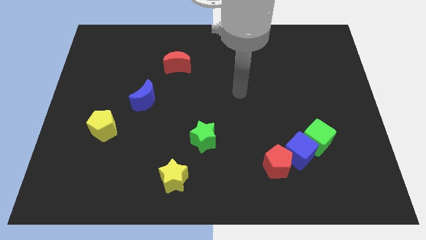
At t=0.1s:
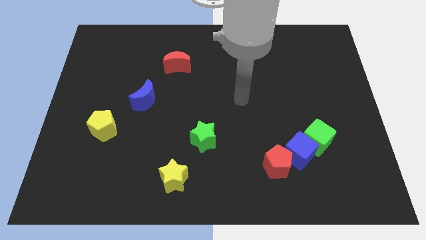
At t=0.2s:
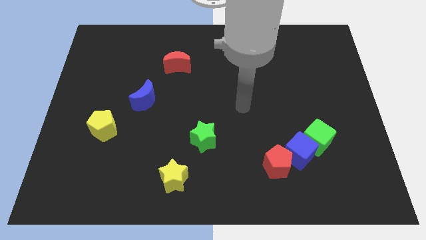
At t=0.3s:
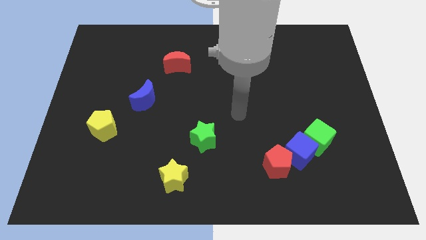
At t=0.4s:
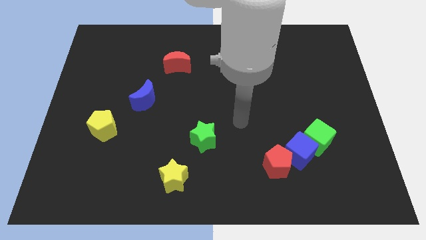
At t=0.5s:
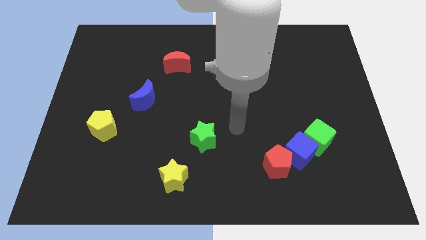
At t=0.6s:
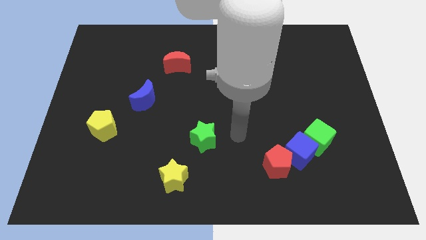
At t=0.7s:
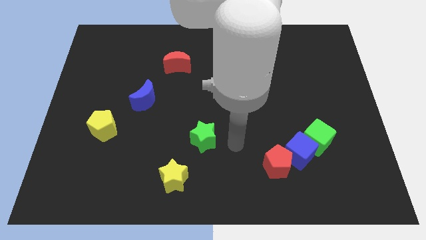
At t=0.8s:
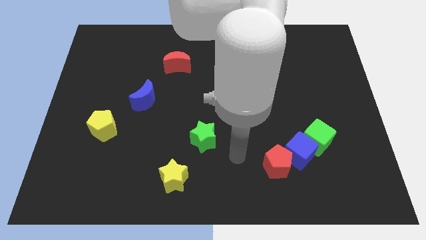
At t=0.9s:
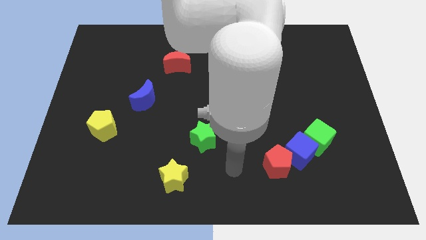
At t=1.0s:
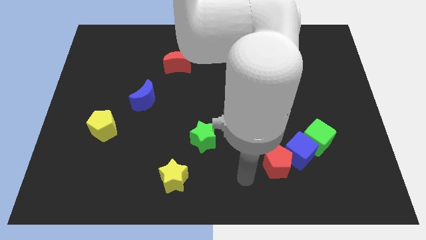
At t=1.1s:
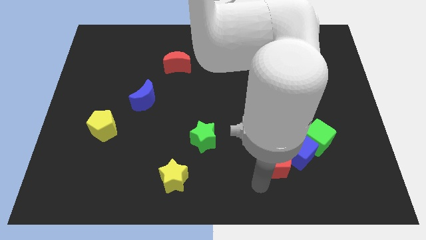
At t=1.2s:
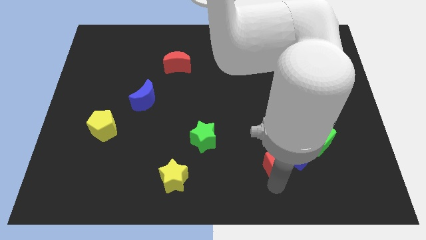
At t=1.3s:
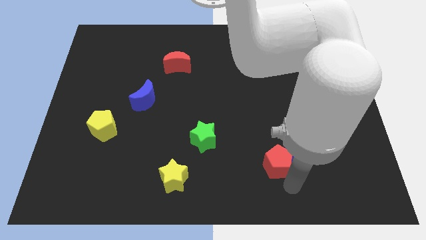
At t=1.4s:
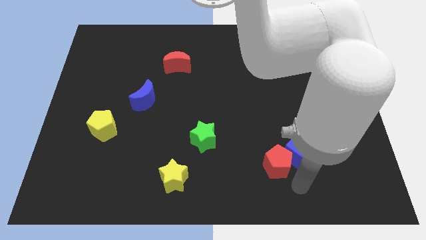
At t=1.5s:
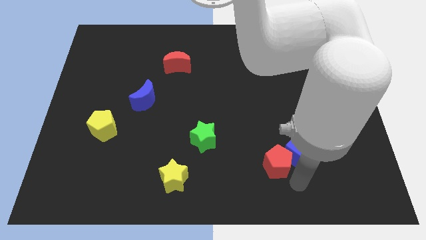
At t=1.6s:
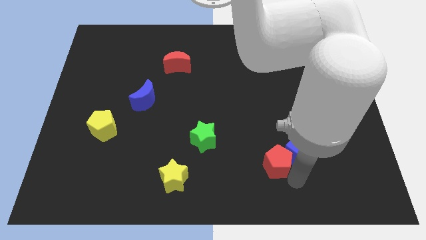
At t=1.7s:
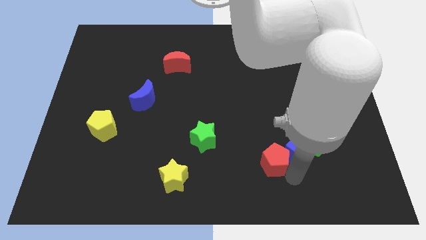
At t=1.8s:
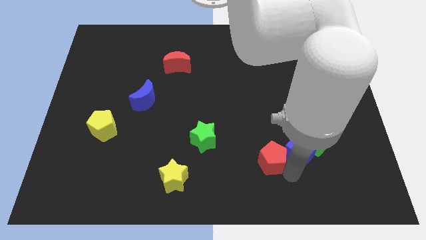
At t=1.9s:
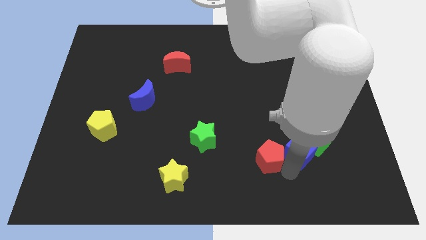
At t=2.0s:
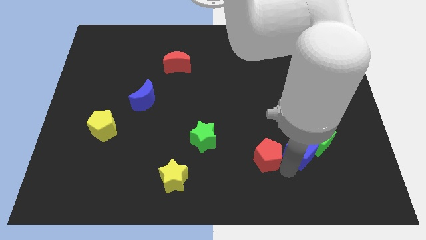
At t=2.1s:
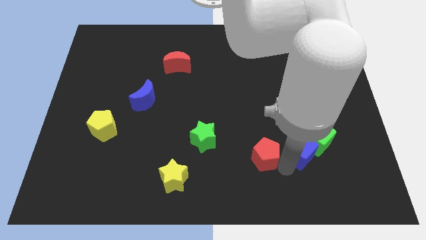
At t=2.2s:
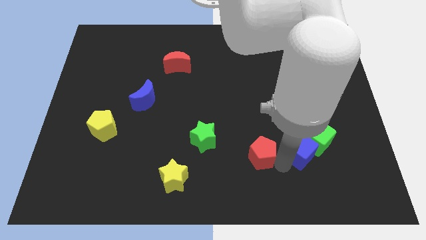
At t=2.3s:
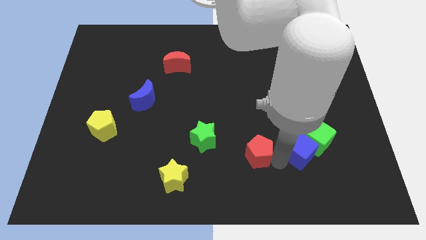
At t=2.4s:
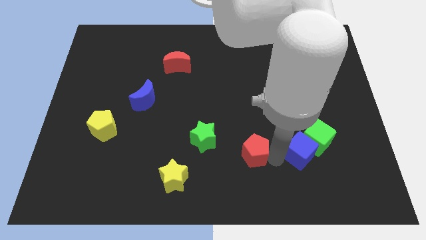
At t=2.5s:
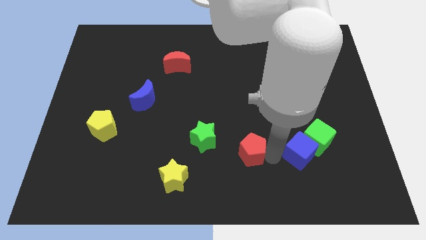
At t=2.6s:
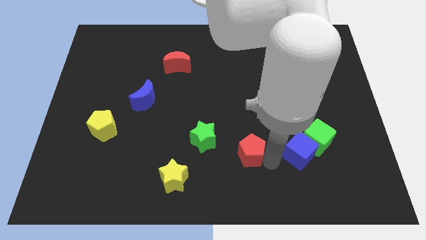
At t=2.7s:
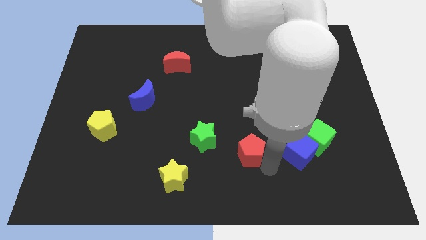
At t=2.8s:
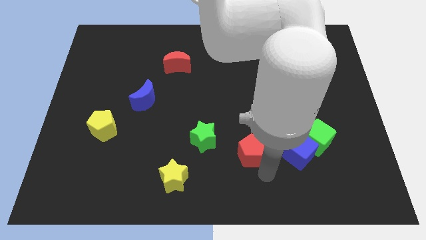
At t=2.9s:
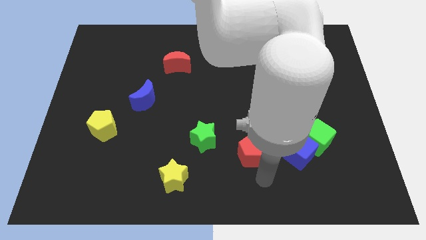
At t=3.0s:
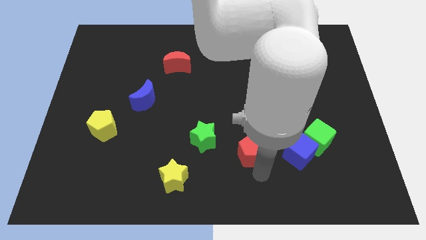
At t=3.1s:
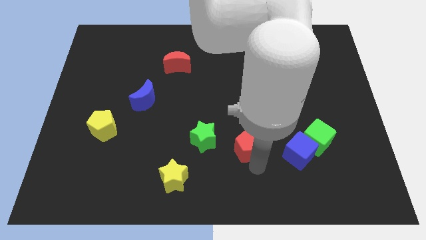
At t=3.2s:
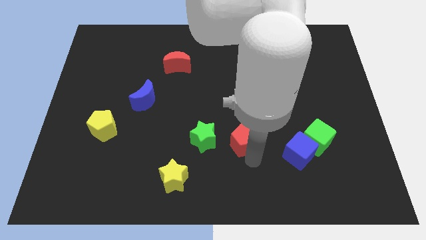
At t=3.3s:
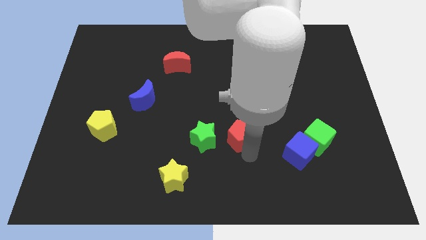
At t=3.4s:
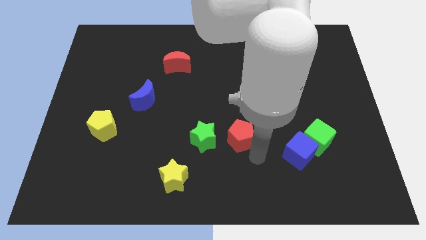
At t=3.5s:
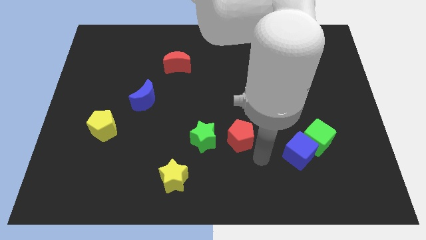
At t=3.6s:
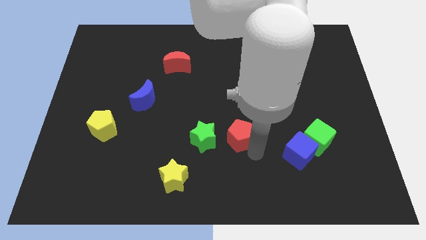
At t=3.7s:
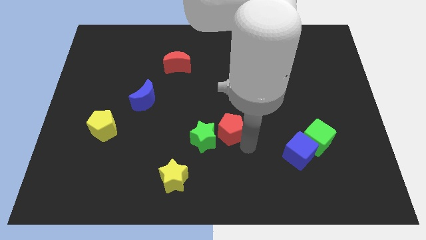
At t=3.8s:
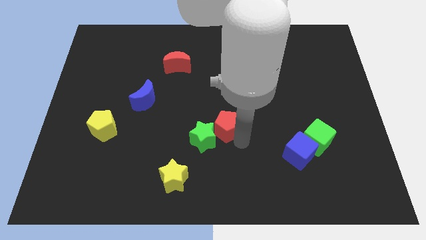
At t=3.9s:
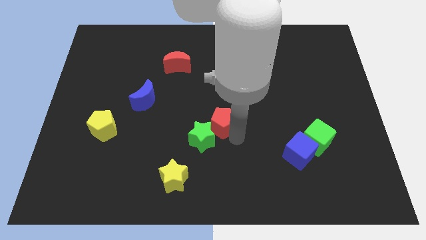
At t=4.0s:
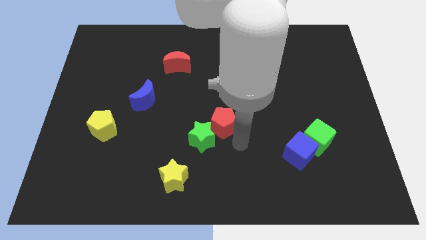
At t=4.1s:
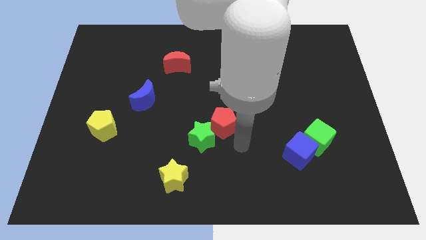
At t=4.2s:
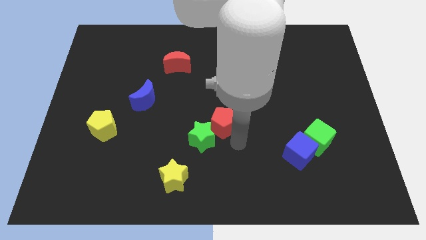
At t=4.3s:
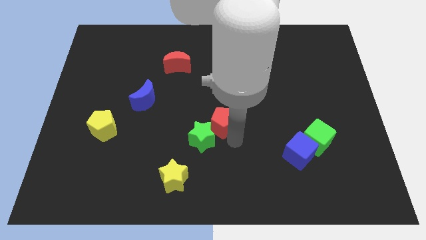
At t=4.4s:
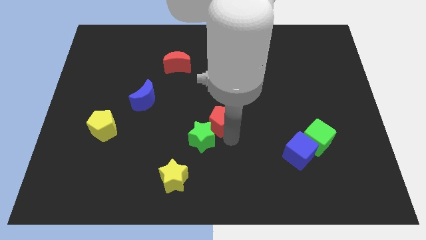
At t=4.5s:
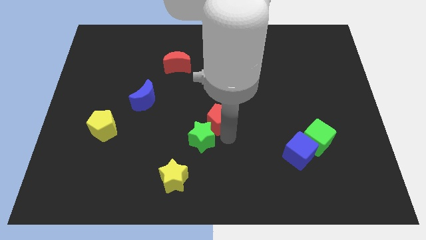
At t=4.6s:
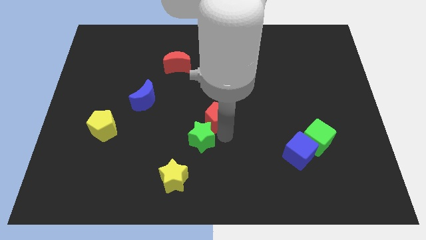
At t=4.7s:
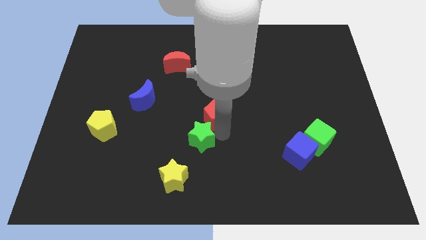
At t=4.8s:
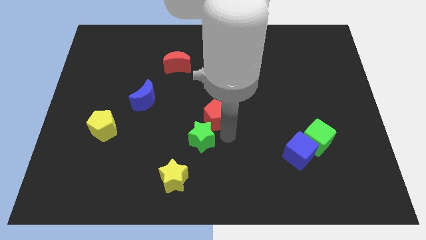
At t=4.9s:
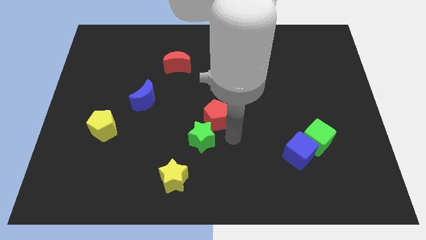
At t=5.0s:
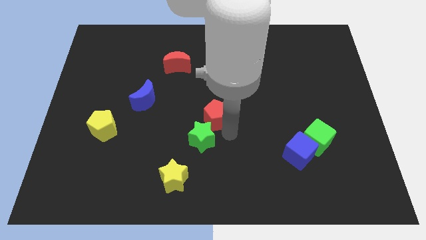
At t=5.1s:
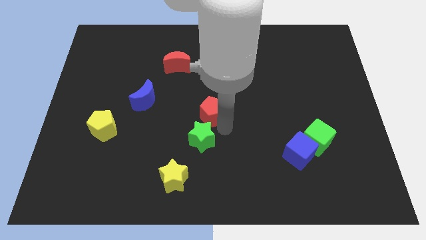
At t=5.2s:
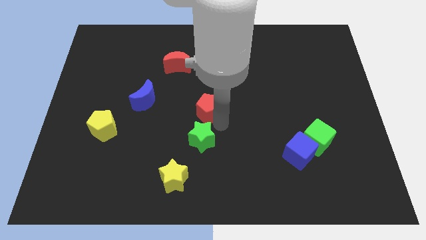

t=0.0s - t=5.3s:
push the red pentagon up and left

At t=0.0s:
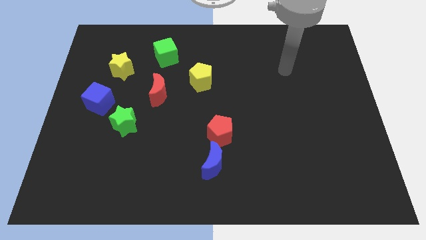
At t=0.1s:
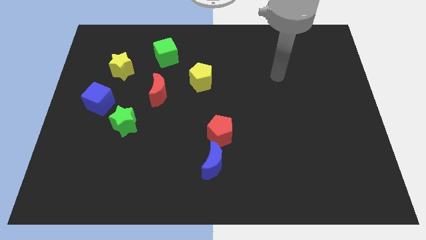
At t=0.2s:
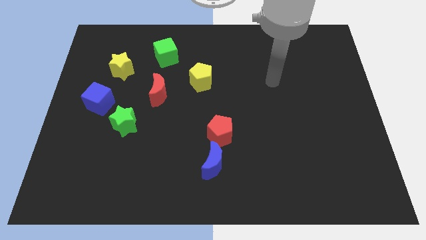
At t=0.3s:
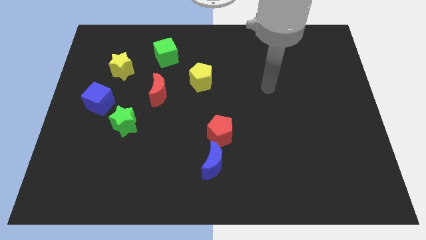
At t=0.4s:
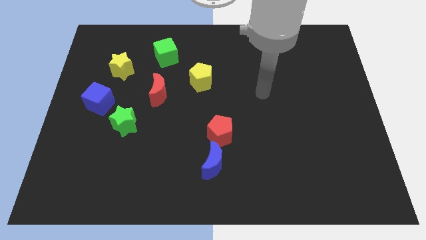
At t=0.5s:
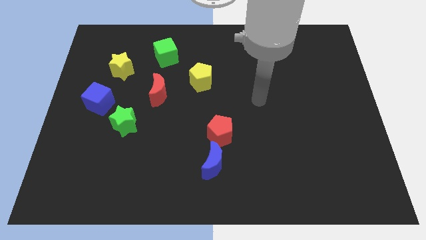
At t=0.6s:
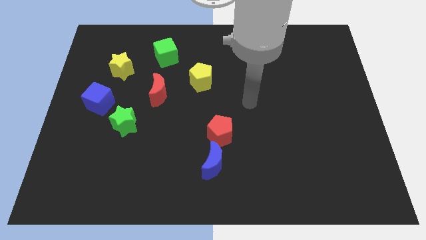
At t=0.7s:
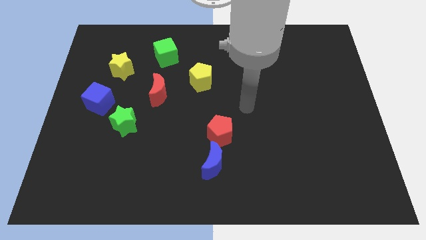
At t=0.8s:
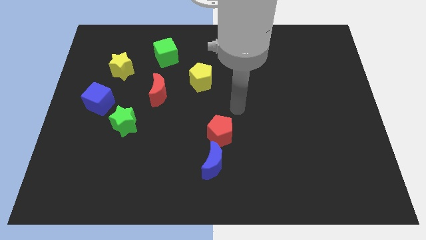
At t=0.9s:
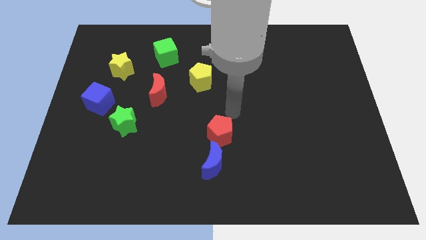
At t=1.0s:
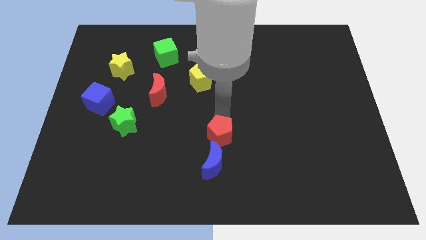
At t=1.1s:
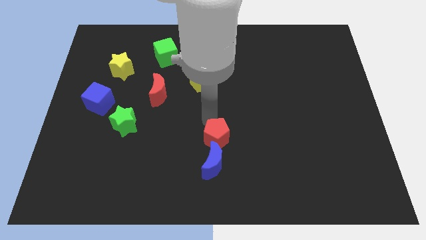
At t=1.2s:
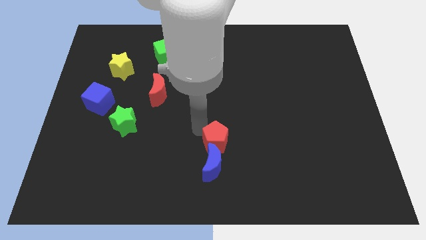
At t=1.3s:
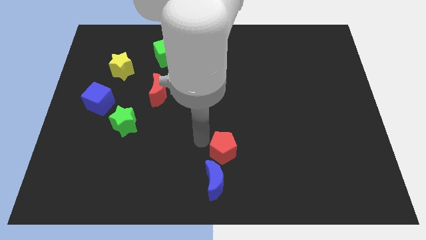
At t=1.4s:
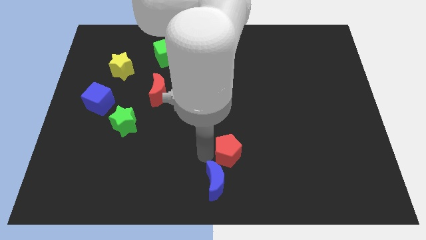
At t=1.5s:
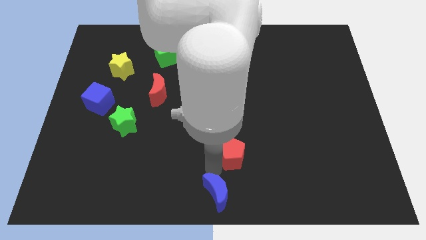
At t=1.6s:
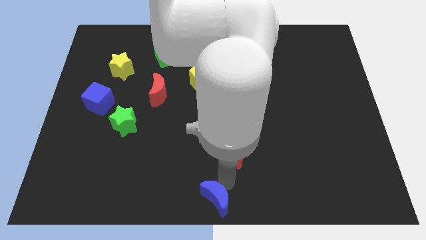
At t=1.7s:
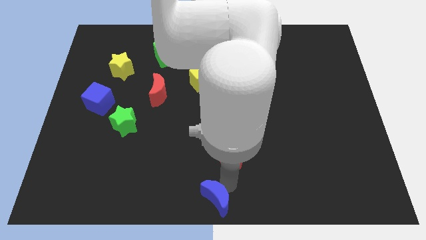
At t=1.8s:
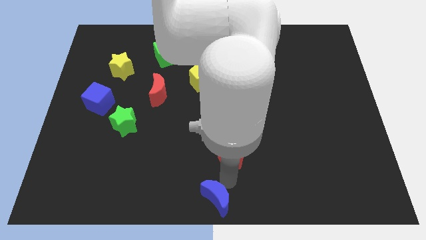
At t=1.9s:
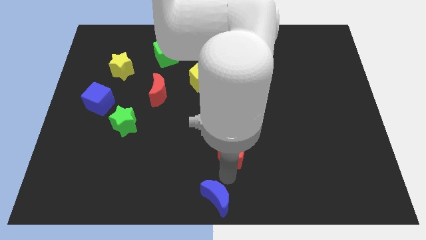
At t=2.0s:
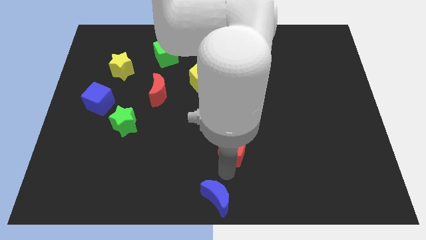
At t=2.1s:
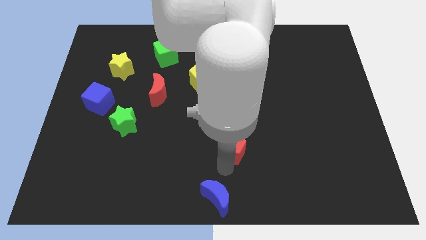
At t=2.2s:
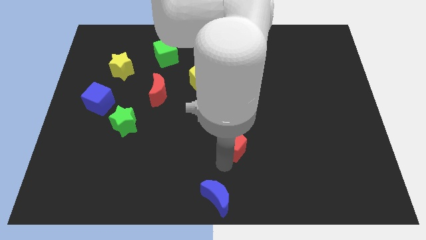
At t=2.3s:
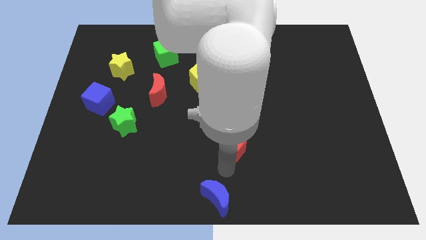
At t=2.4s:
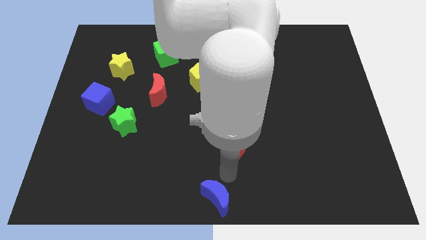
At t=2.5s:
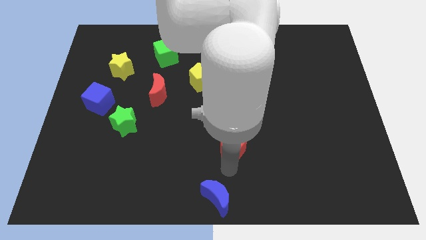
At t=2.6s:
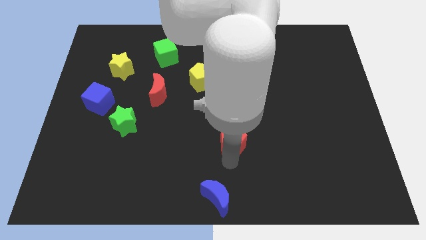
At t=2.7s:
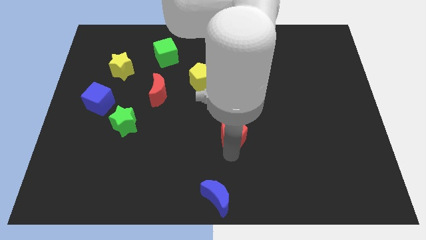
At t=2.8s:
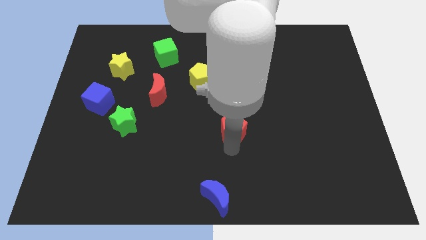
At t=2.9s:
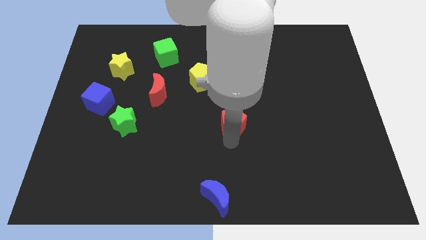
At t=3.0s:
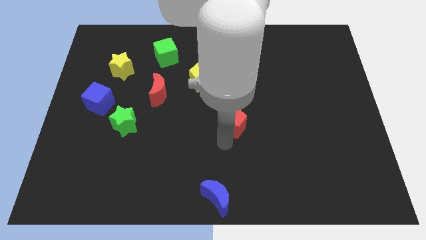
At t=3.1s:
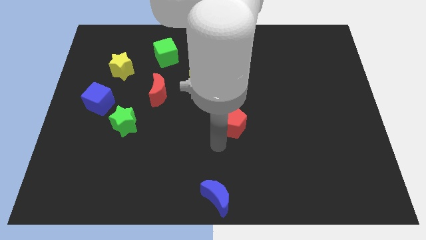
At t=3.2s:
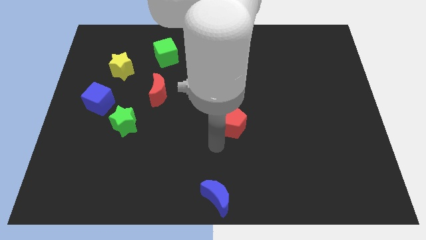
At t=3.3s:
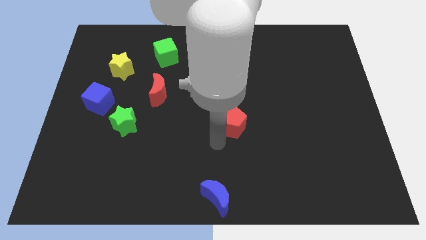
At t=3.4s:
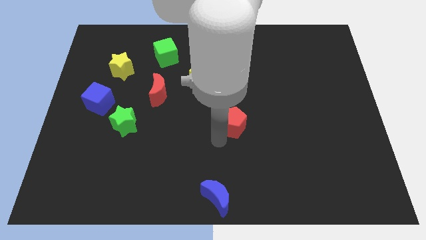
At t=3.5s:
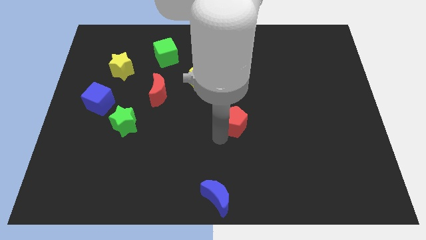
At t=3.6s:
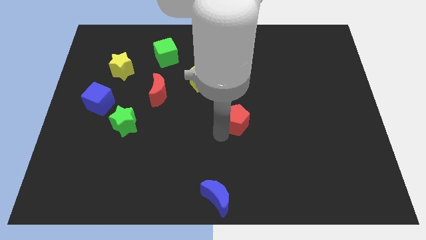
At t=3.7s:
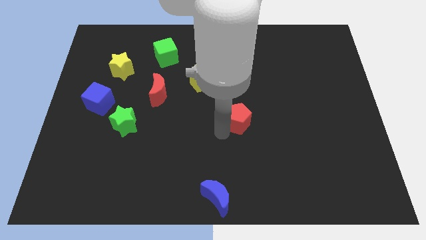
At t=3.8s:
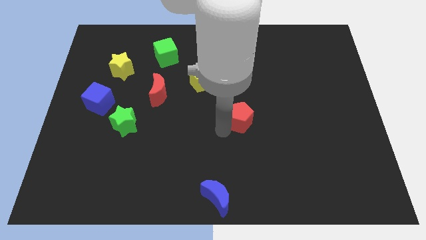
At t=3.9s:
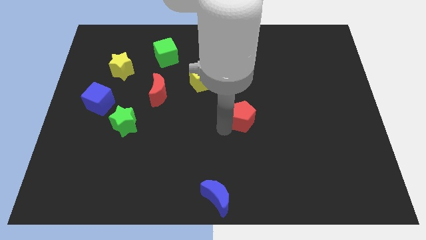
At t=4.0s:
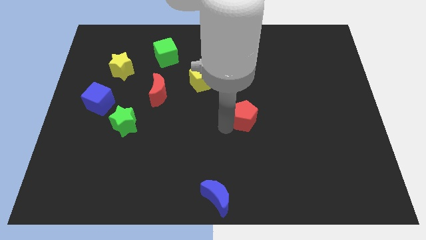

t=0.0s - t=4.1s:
slightly move the red pentagon upwards and then right
